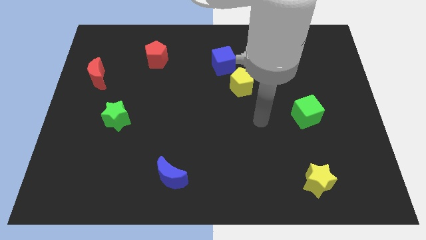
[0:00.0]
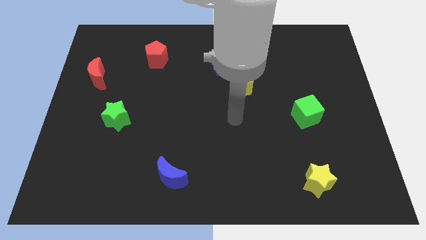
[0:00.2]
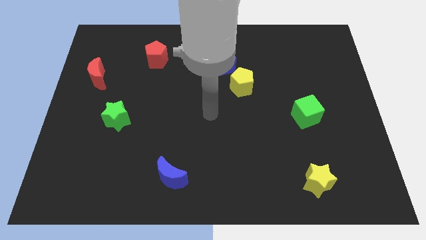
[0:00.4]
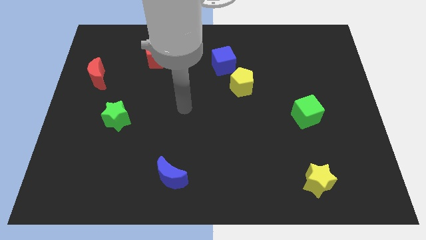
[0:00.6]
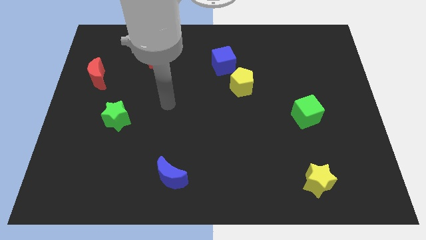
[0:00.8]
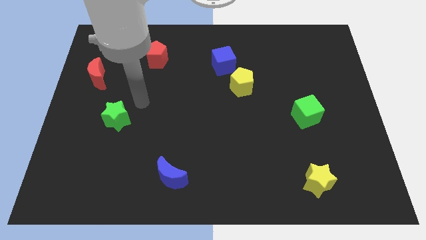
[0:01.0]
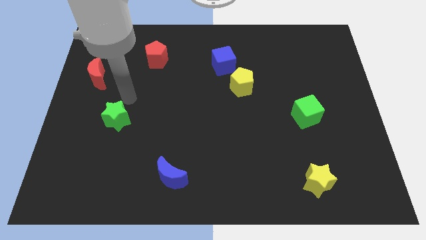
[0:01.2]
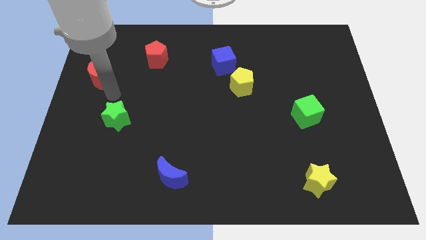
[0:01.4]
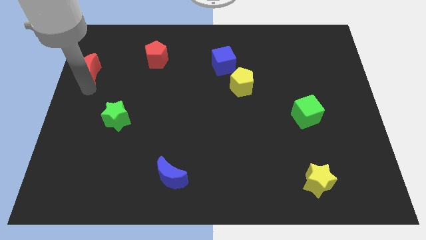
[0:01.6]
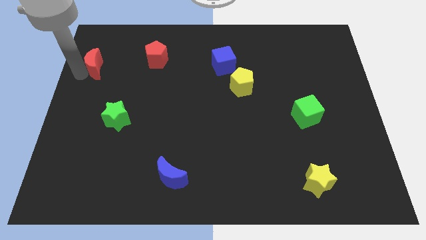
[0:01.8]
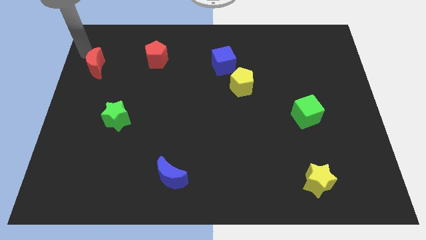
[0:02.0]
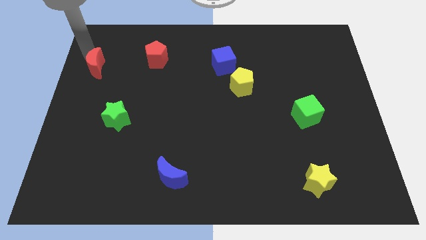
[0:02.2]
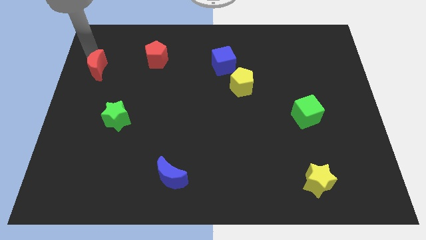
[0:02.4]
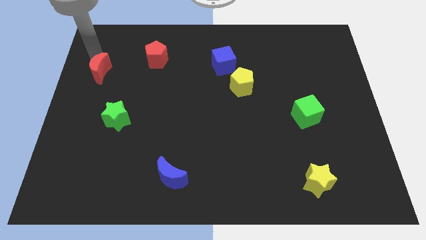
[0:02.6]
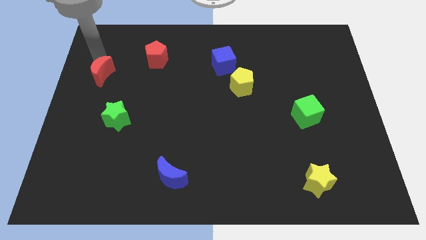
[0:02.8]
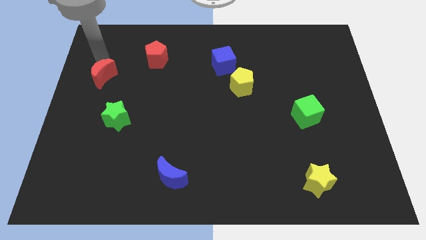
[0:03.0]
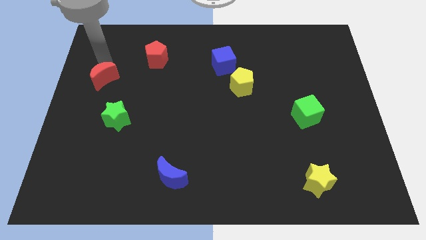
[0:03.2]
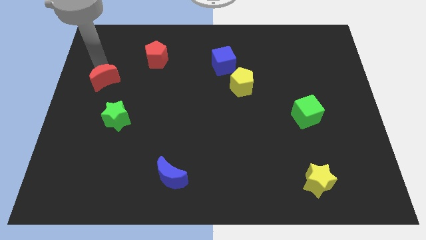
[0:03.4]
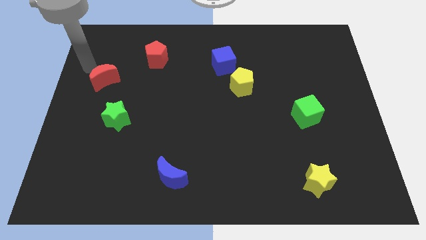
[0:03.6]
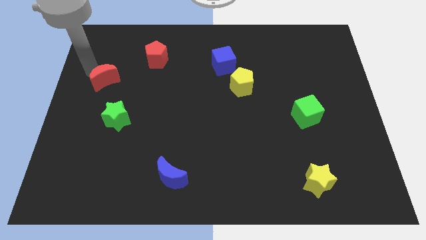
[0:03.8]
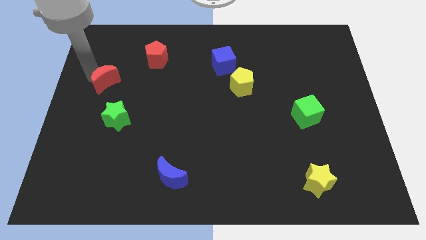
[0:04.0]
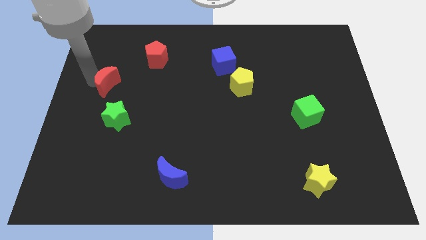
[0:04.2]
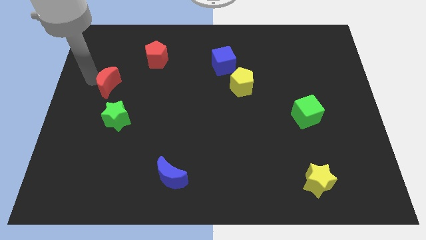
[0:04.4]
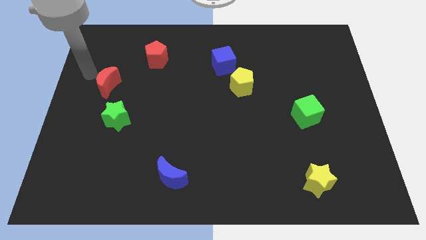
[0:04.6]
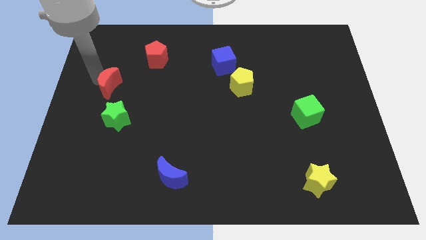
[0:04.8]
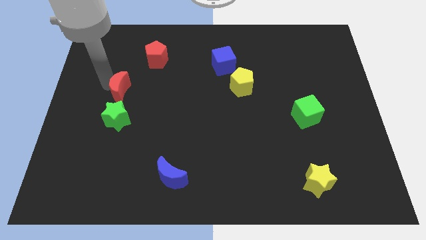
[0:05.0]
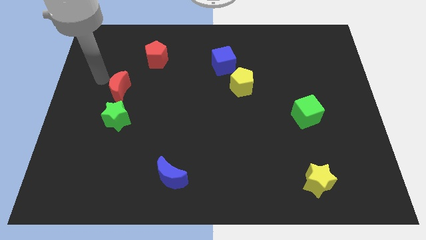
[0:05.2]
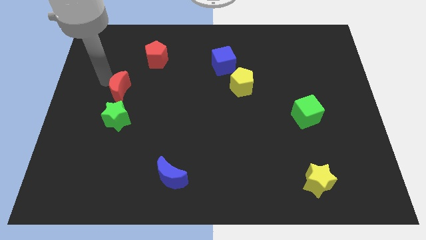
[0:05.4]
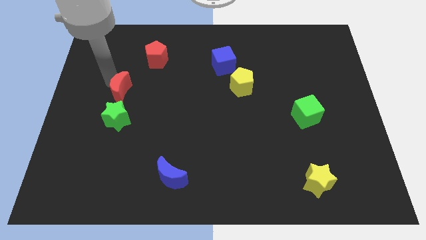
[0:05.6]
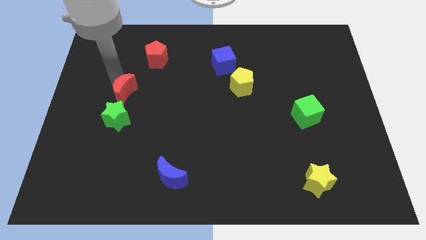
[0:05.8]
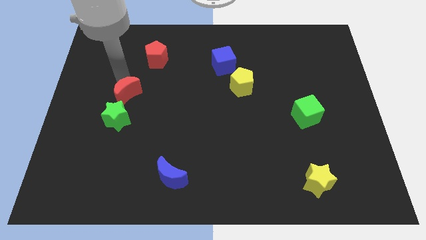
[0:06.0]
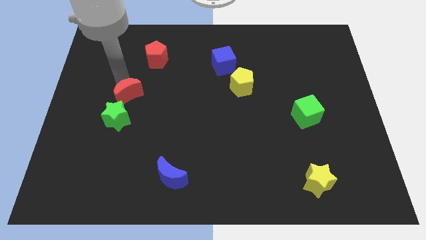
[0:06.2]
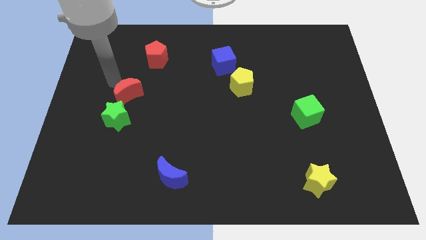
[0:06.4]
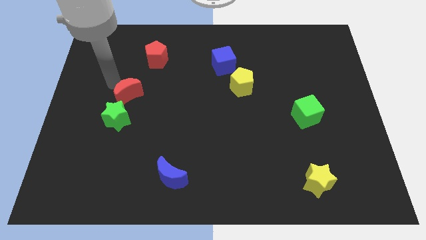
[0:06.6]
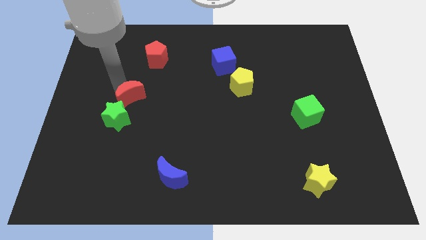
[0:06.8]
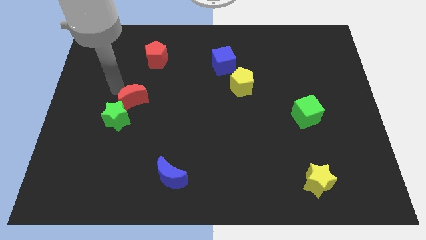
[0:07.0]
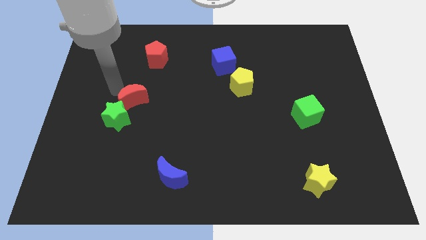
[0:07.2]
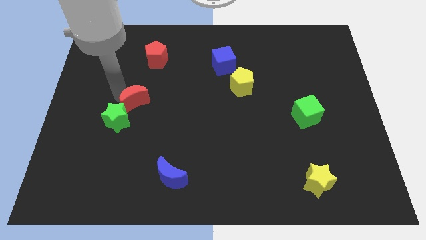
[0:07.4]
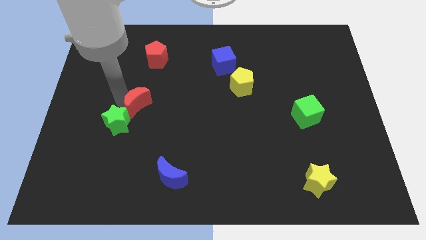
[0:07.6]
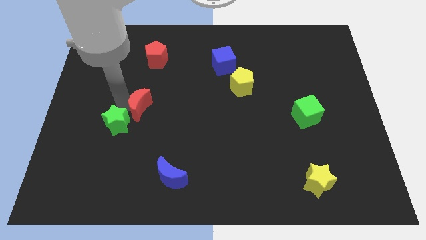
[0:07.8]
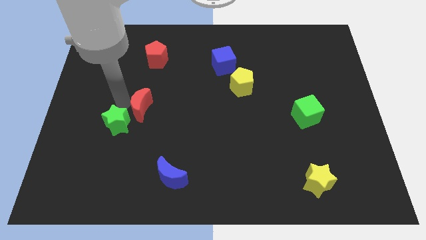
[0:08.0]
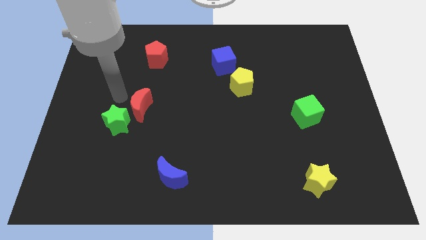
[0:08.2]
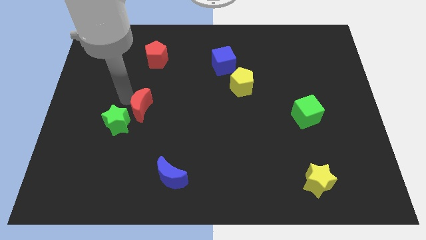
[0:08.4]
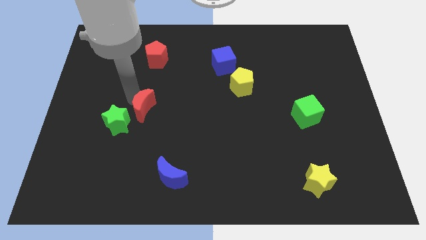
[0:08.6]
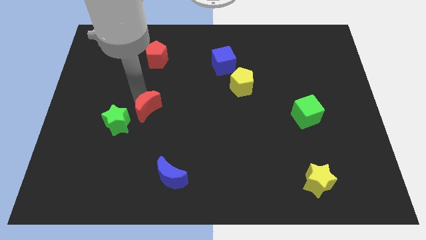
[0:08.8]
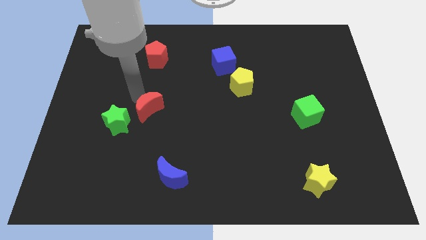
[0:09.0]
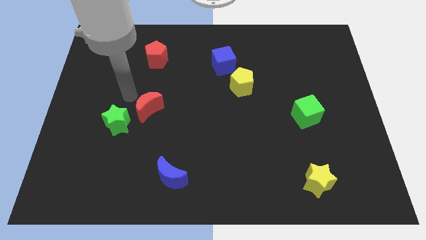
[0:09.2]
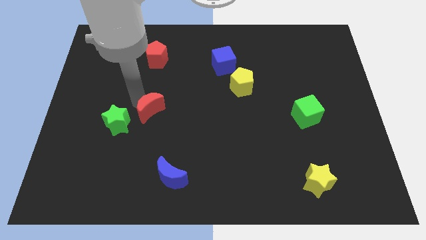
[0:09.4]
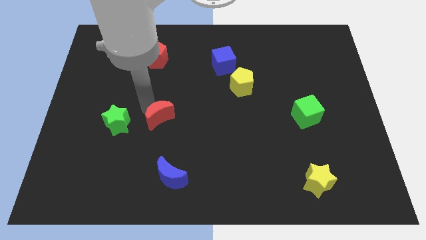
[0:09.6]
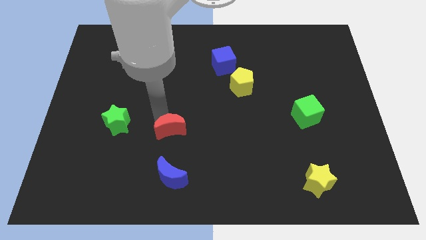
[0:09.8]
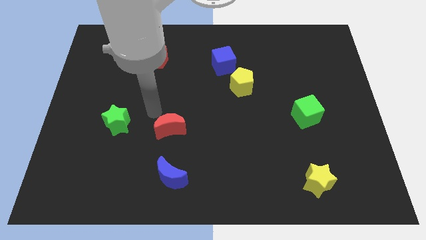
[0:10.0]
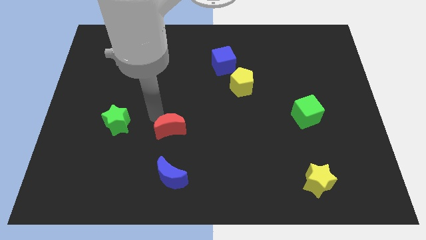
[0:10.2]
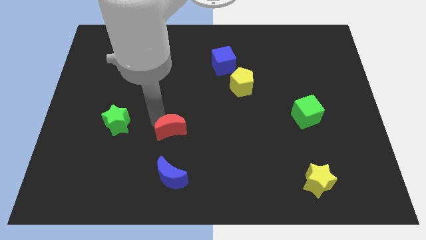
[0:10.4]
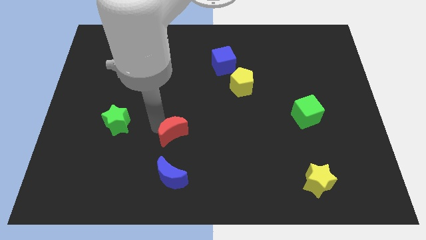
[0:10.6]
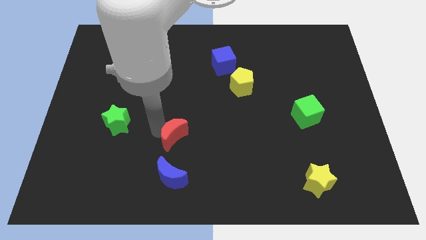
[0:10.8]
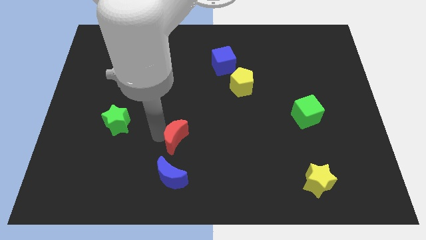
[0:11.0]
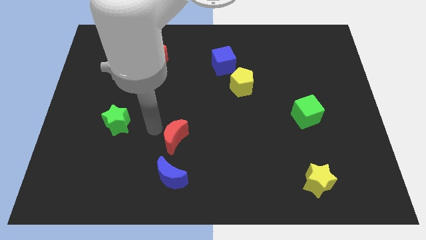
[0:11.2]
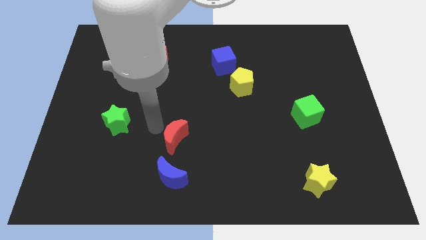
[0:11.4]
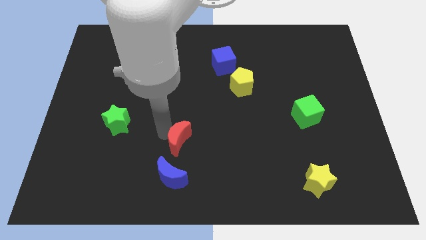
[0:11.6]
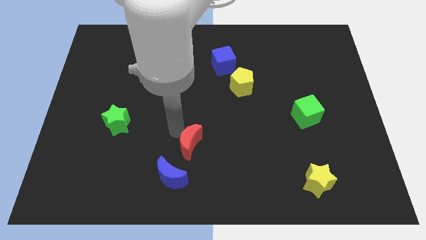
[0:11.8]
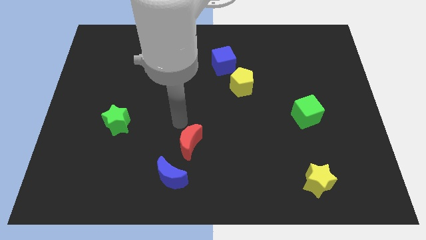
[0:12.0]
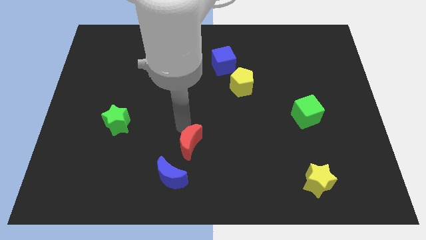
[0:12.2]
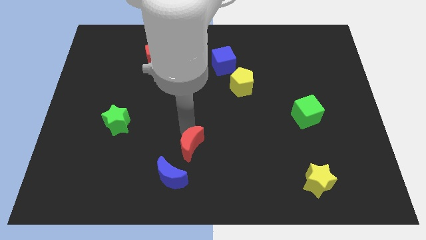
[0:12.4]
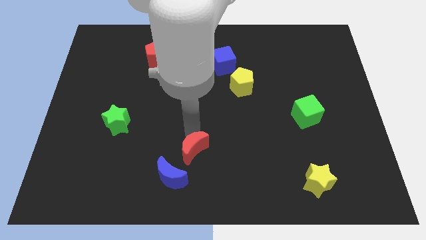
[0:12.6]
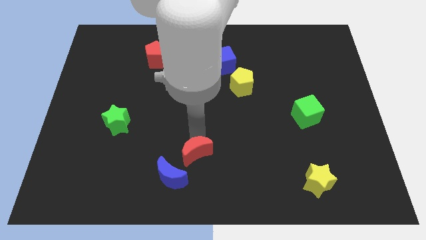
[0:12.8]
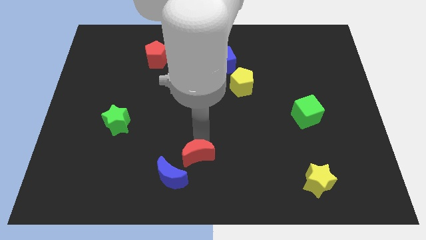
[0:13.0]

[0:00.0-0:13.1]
put the red moon to the bottom side
